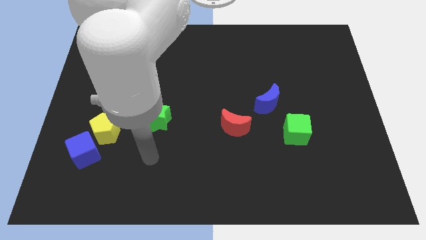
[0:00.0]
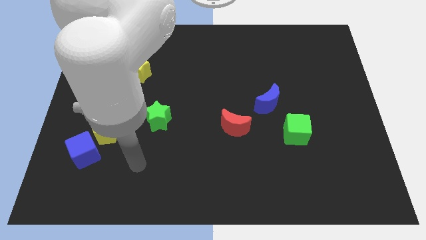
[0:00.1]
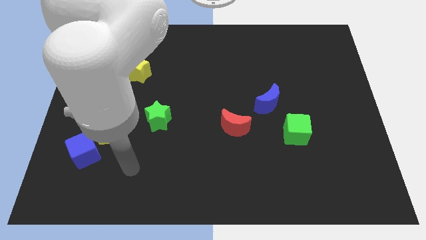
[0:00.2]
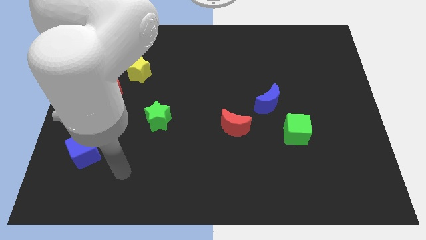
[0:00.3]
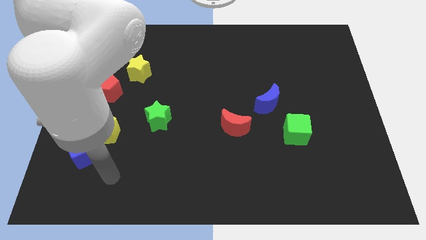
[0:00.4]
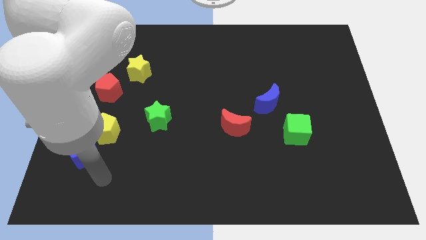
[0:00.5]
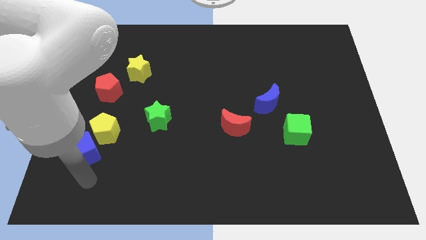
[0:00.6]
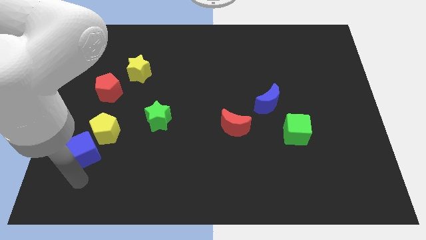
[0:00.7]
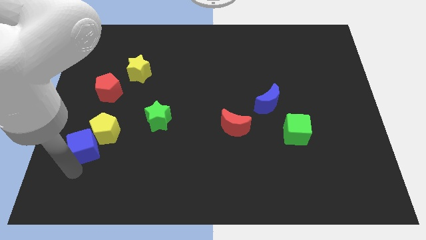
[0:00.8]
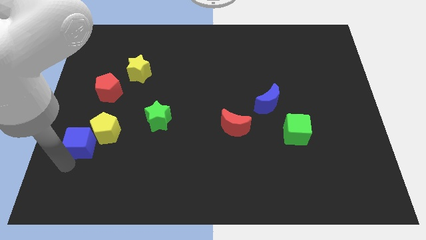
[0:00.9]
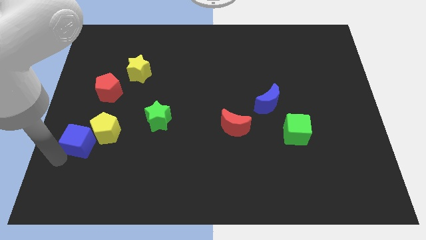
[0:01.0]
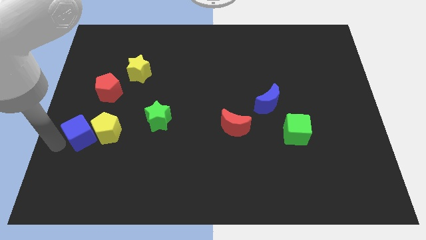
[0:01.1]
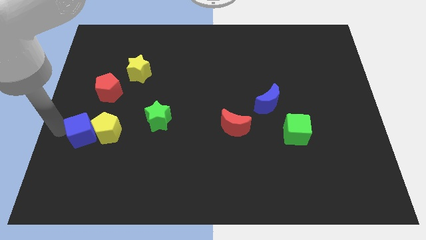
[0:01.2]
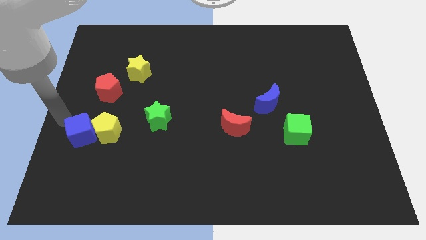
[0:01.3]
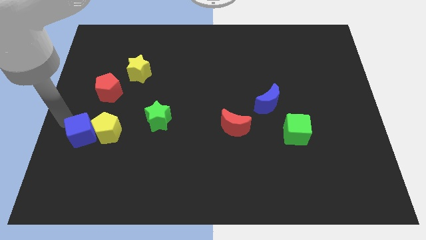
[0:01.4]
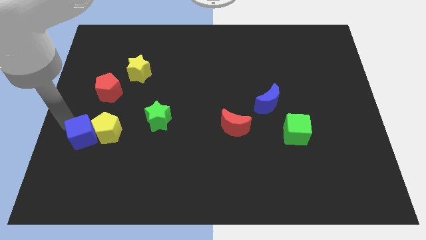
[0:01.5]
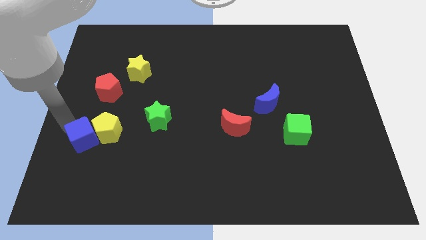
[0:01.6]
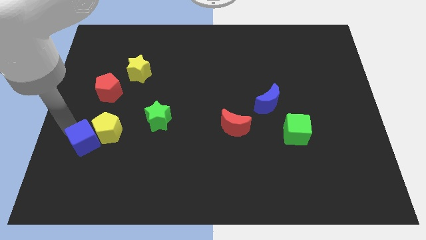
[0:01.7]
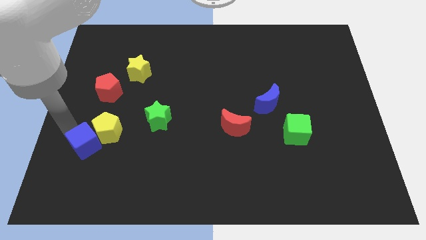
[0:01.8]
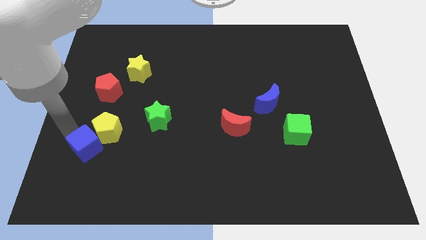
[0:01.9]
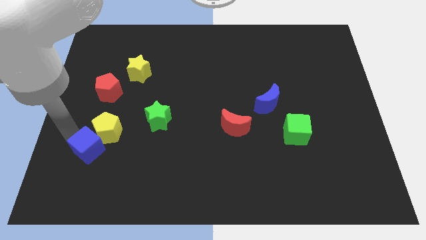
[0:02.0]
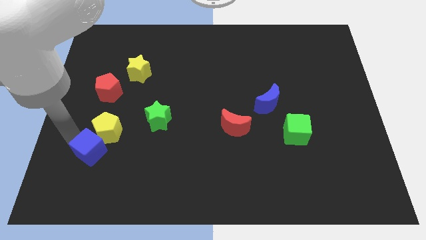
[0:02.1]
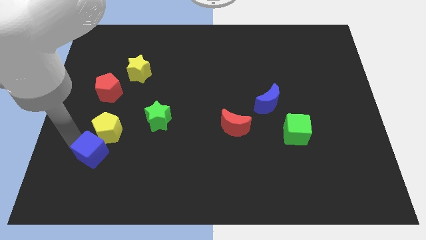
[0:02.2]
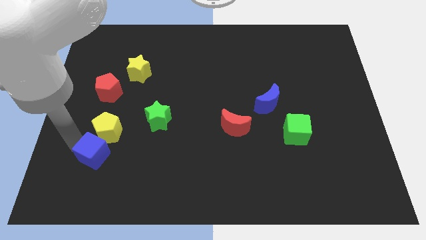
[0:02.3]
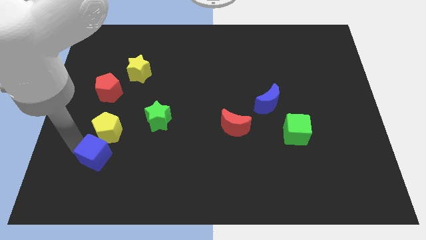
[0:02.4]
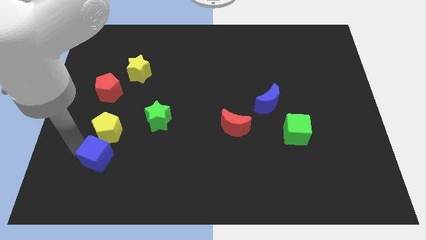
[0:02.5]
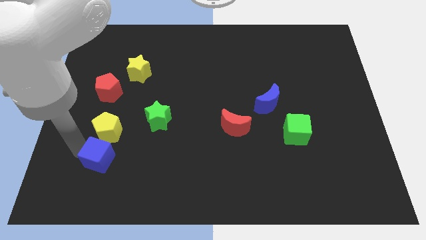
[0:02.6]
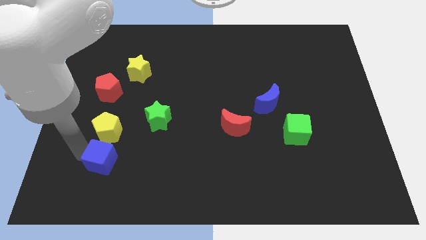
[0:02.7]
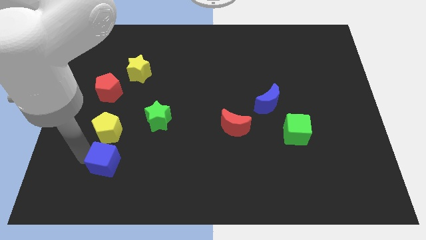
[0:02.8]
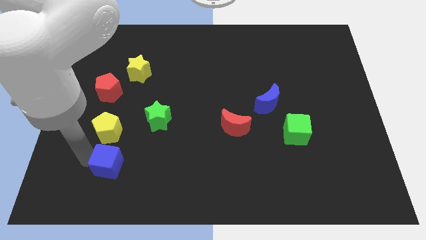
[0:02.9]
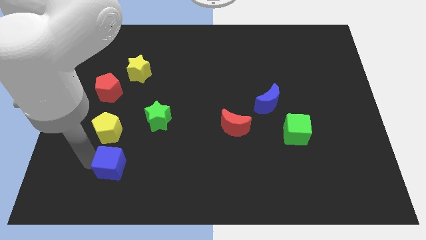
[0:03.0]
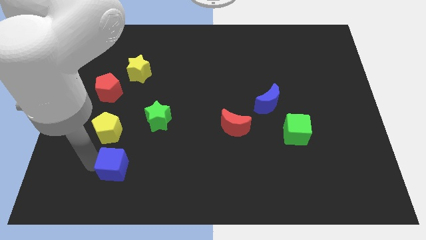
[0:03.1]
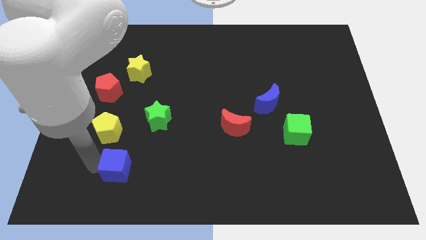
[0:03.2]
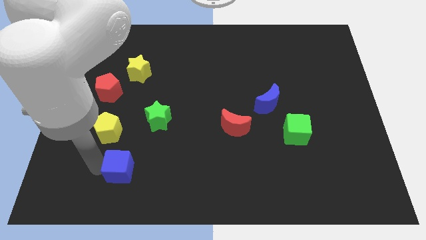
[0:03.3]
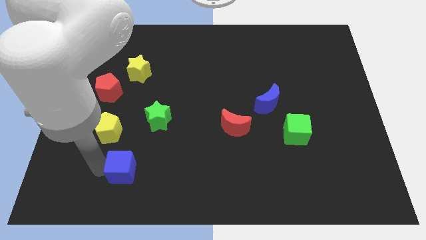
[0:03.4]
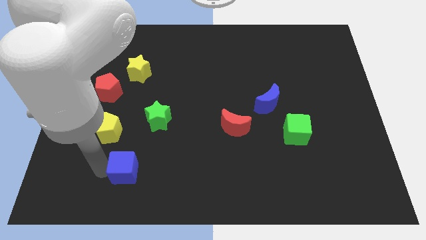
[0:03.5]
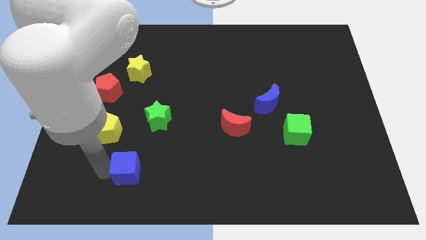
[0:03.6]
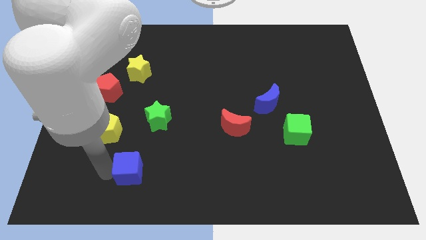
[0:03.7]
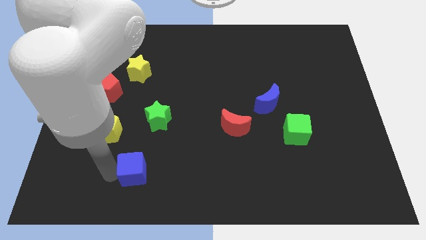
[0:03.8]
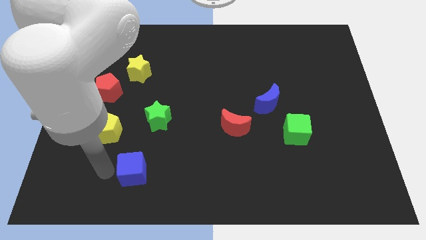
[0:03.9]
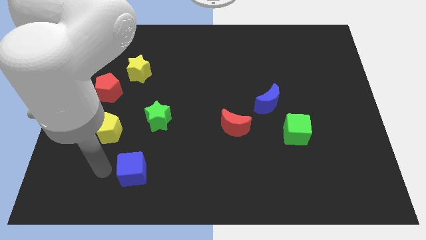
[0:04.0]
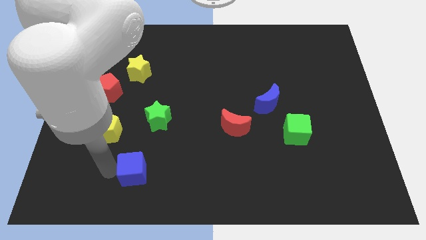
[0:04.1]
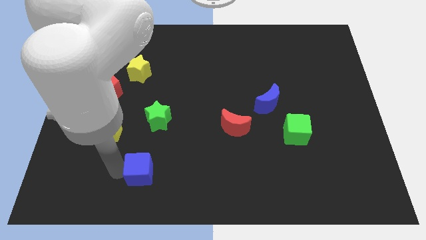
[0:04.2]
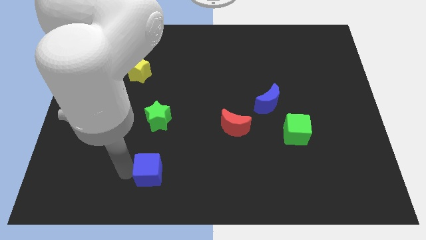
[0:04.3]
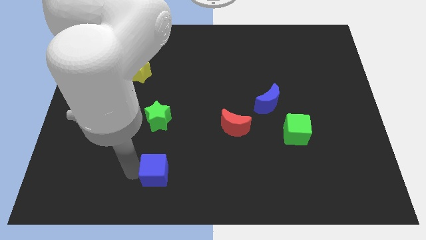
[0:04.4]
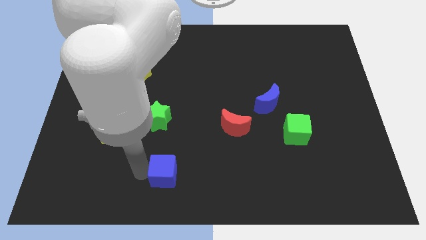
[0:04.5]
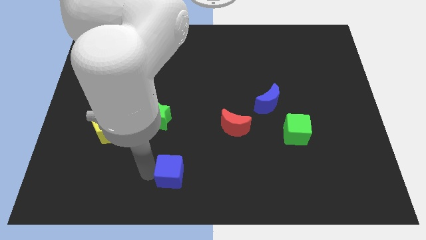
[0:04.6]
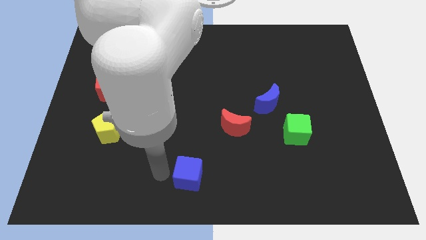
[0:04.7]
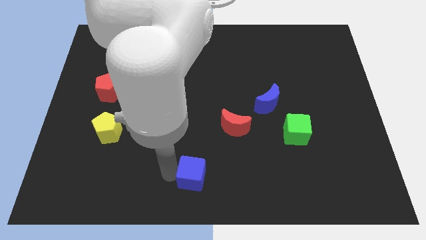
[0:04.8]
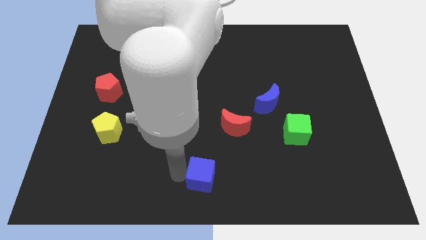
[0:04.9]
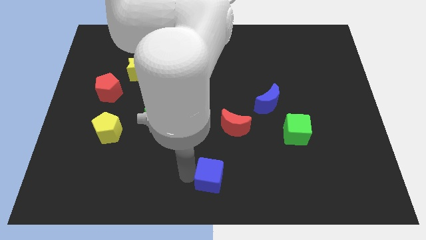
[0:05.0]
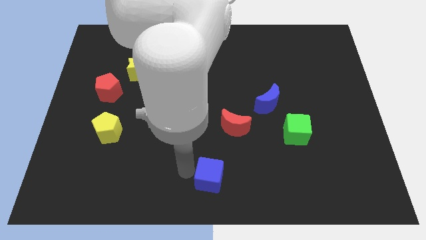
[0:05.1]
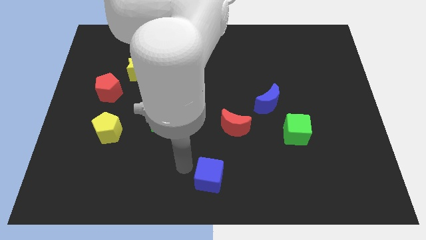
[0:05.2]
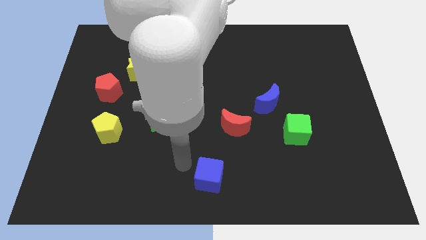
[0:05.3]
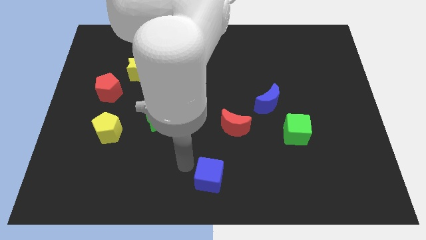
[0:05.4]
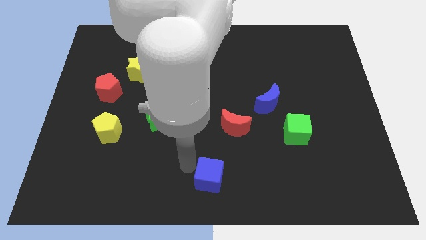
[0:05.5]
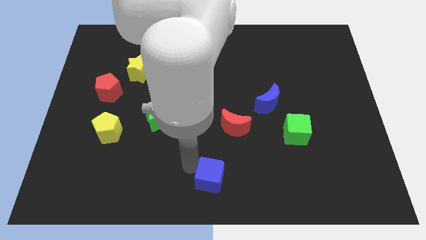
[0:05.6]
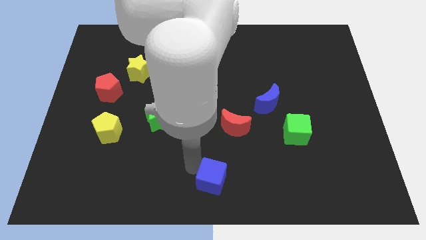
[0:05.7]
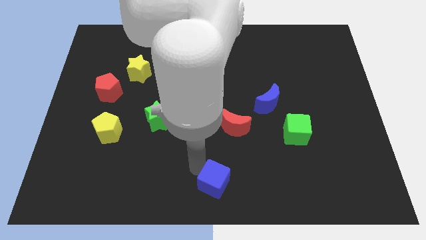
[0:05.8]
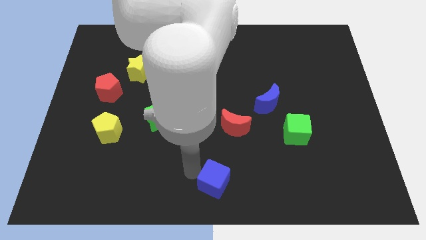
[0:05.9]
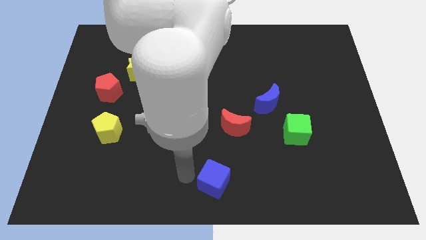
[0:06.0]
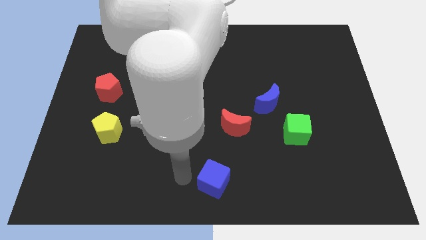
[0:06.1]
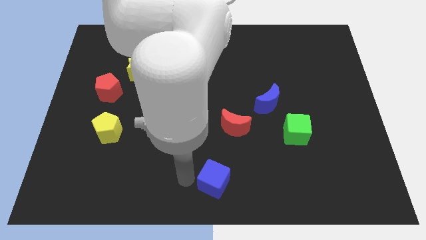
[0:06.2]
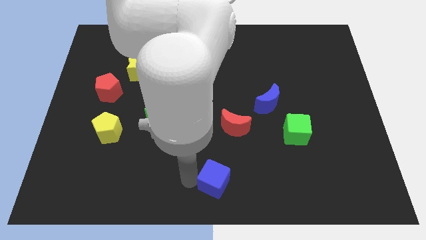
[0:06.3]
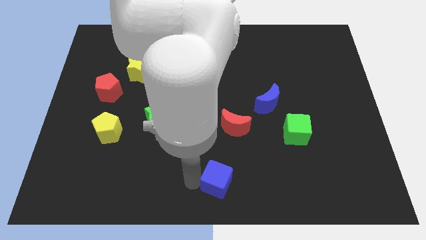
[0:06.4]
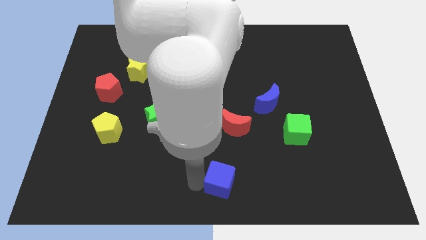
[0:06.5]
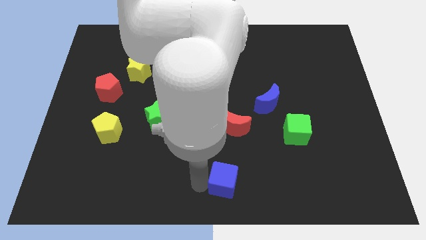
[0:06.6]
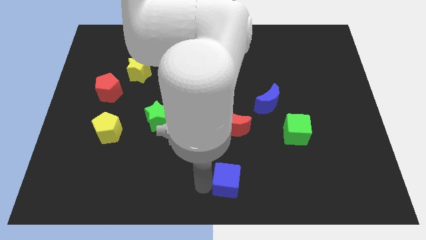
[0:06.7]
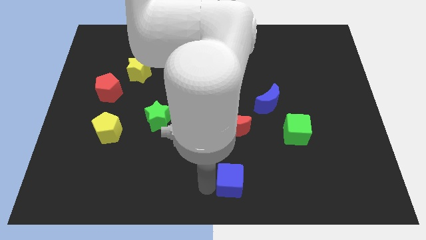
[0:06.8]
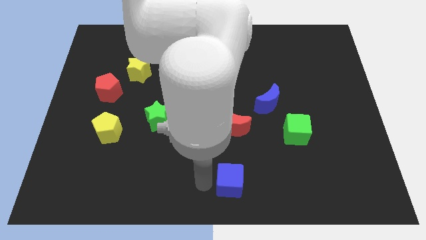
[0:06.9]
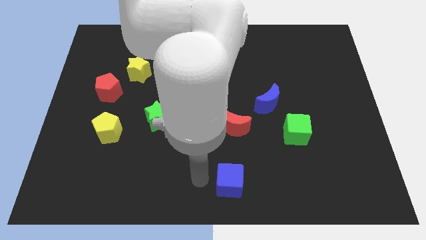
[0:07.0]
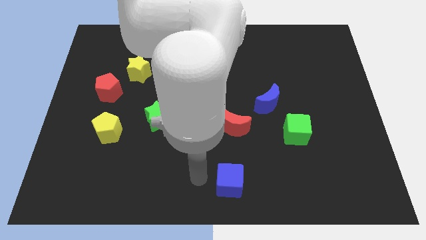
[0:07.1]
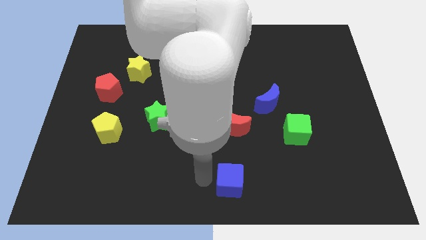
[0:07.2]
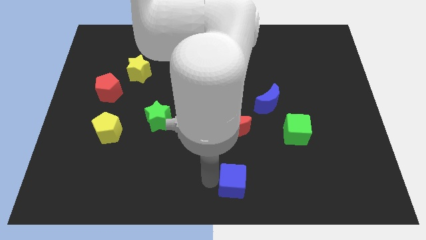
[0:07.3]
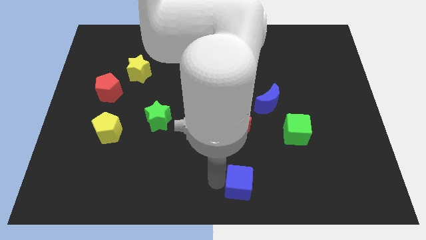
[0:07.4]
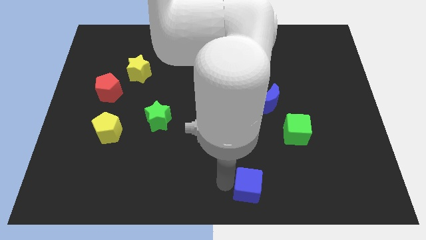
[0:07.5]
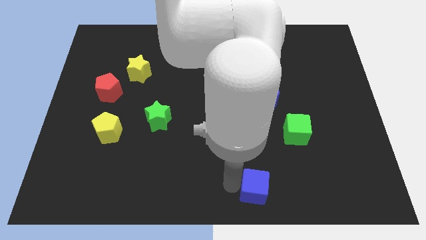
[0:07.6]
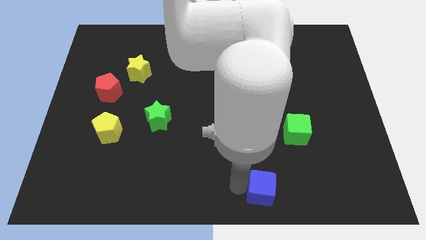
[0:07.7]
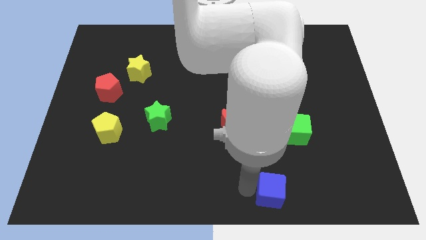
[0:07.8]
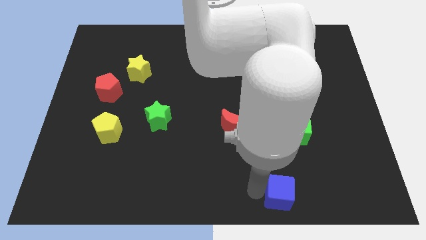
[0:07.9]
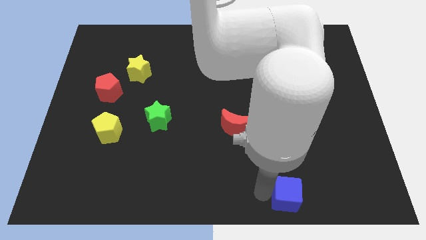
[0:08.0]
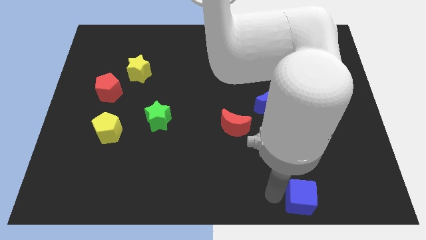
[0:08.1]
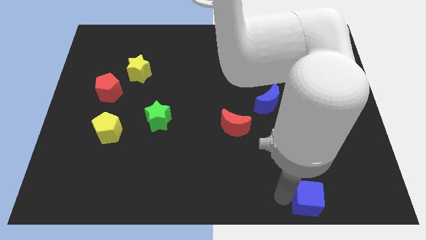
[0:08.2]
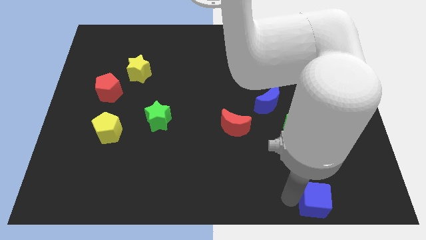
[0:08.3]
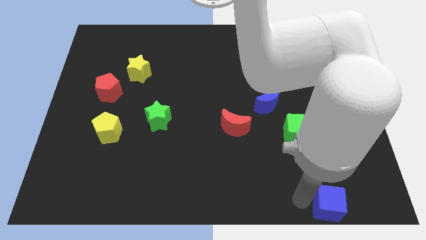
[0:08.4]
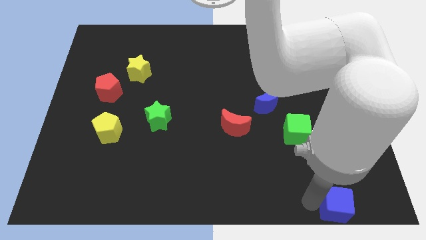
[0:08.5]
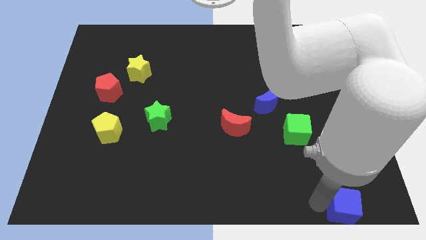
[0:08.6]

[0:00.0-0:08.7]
slide the blue cube to the lower right corner
